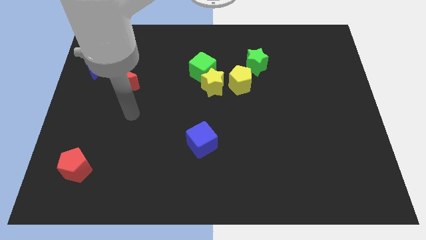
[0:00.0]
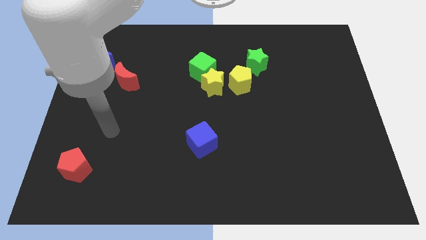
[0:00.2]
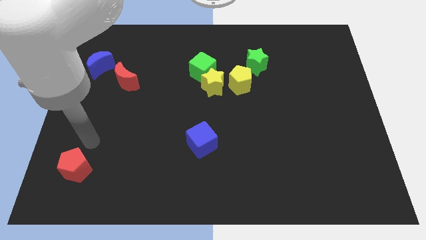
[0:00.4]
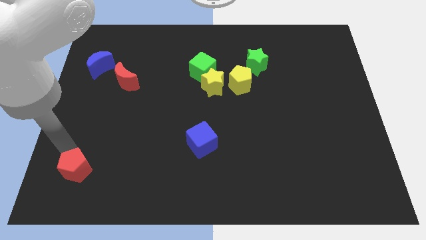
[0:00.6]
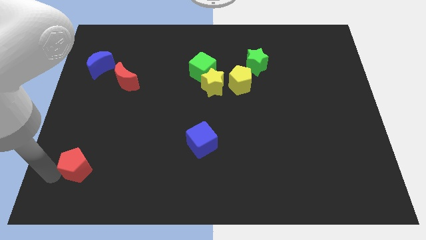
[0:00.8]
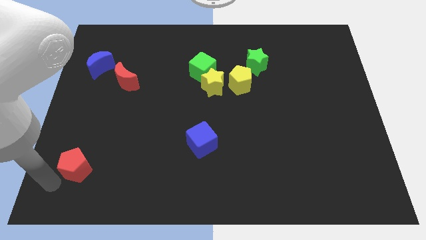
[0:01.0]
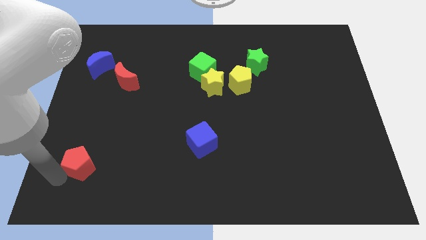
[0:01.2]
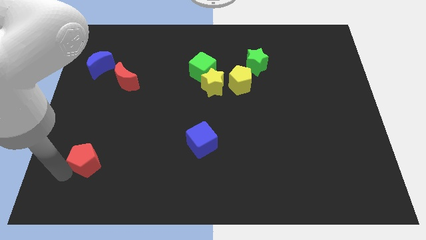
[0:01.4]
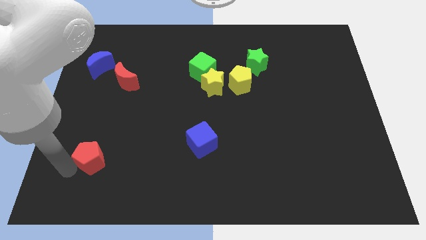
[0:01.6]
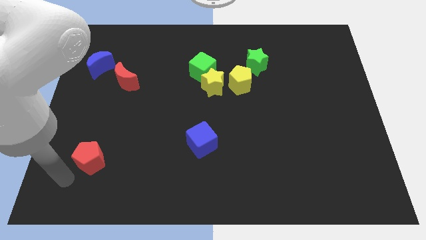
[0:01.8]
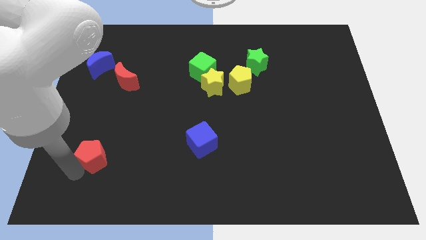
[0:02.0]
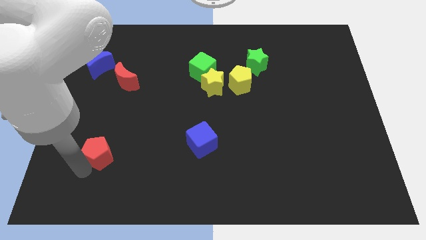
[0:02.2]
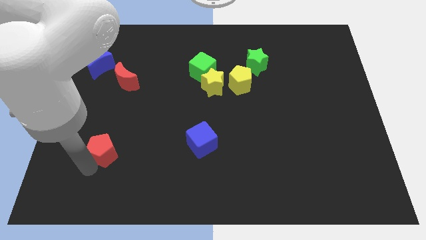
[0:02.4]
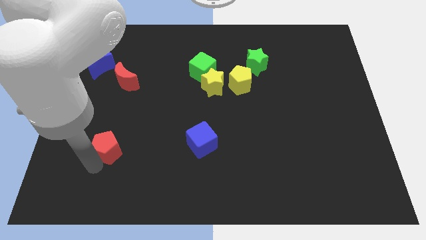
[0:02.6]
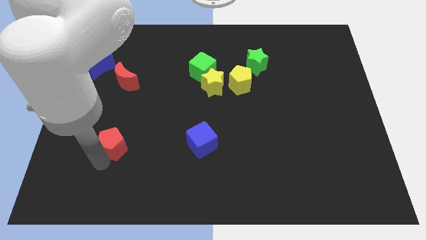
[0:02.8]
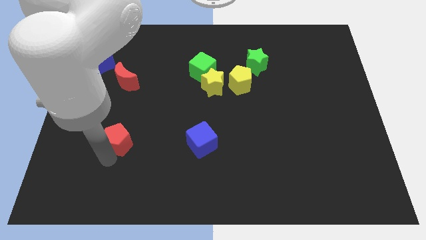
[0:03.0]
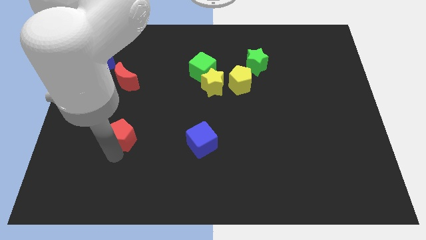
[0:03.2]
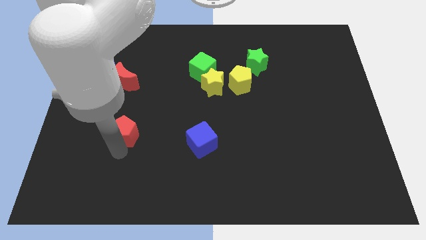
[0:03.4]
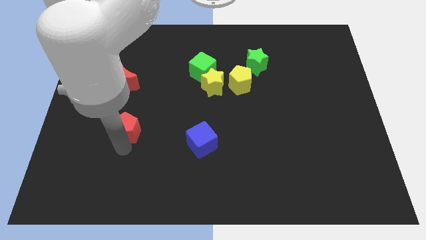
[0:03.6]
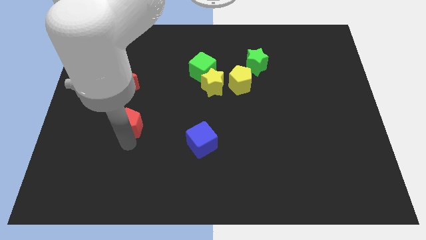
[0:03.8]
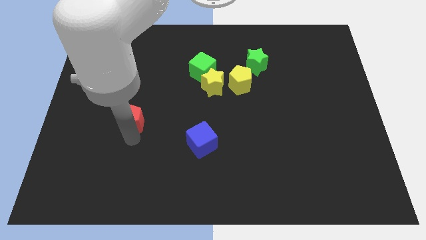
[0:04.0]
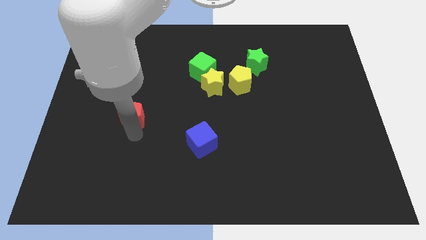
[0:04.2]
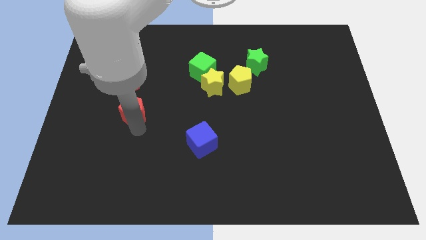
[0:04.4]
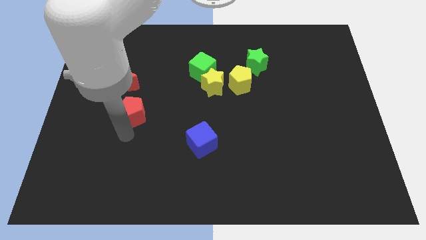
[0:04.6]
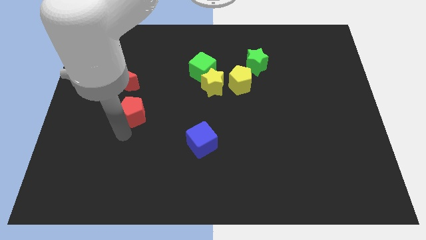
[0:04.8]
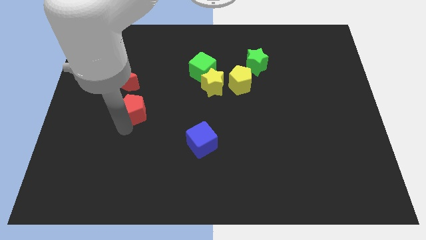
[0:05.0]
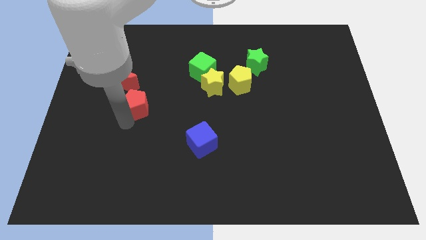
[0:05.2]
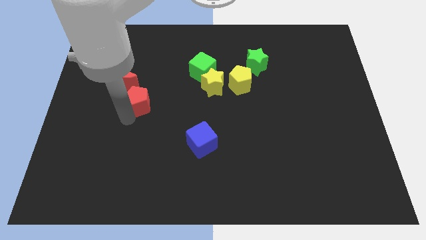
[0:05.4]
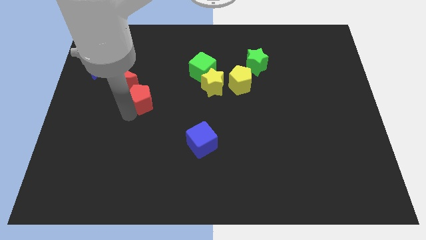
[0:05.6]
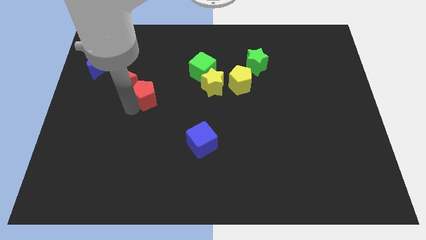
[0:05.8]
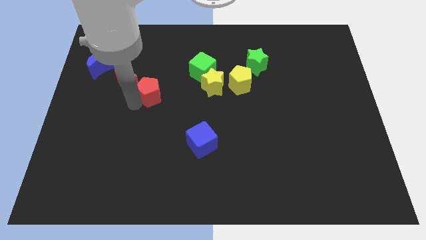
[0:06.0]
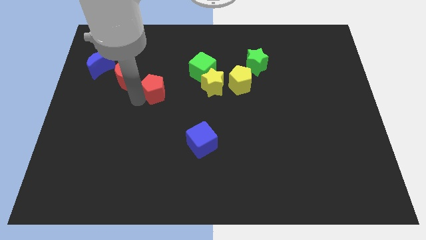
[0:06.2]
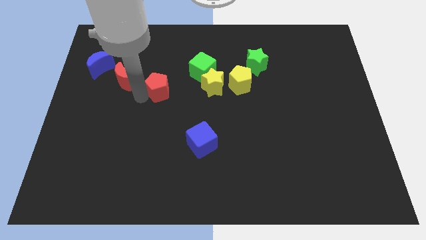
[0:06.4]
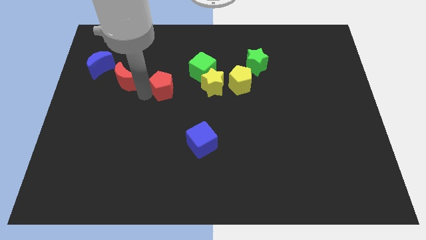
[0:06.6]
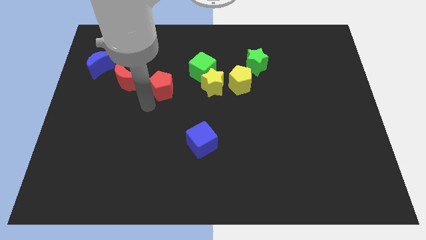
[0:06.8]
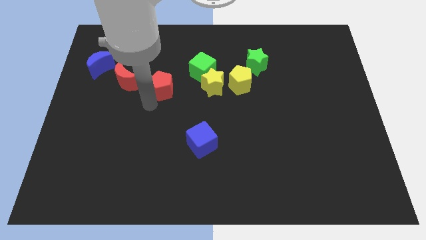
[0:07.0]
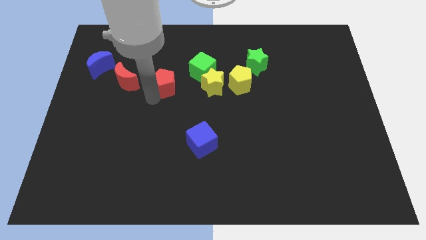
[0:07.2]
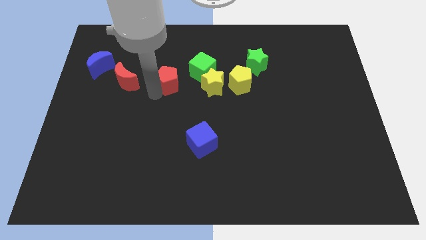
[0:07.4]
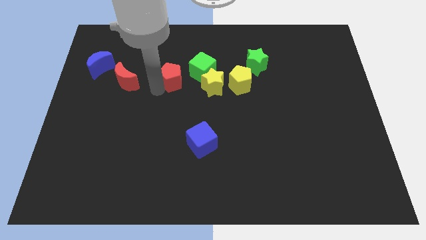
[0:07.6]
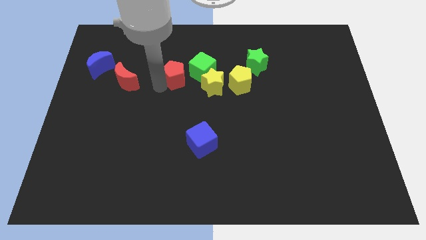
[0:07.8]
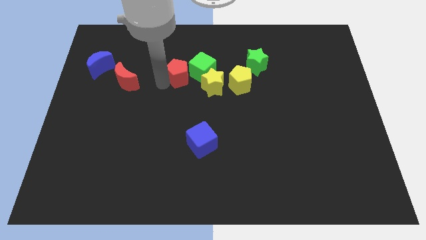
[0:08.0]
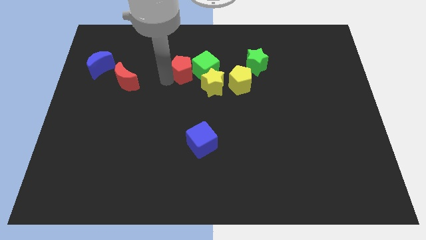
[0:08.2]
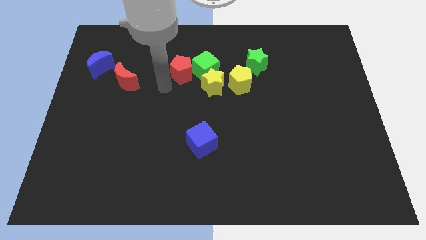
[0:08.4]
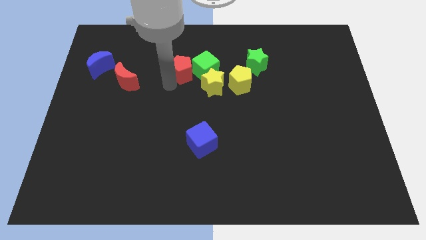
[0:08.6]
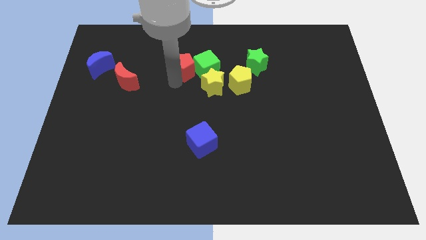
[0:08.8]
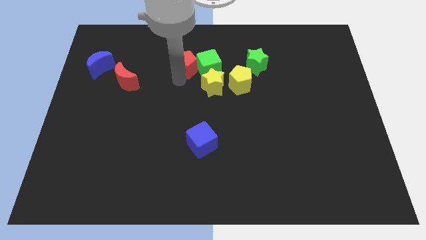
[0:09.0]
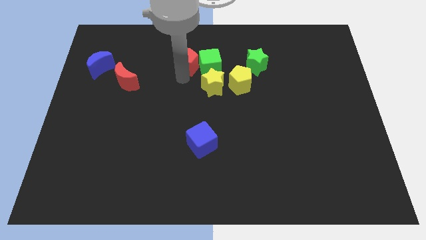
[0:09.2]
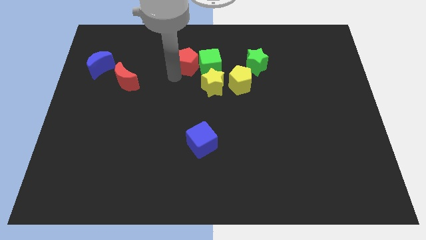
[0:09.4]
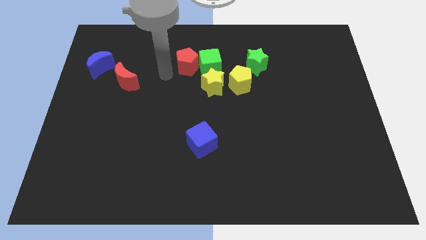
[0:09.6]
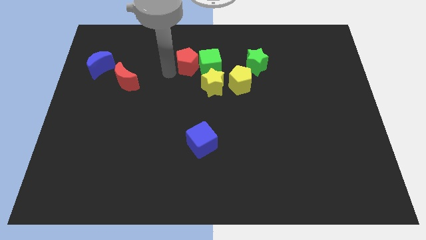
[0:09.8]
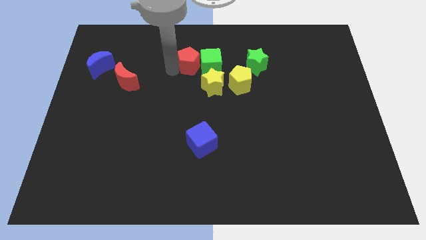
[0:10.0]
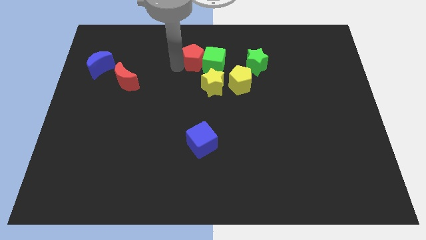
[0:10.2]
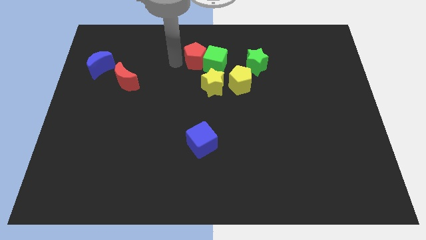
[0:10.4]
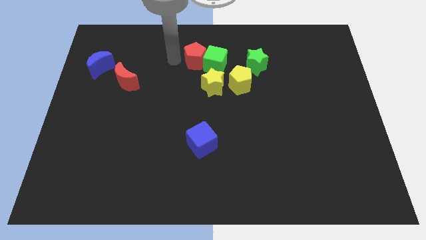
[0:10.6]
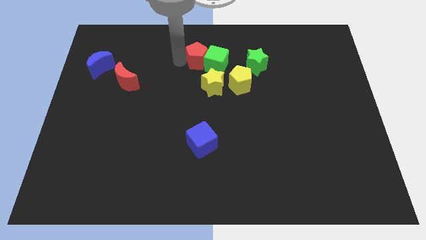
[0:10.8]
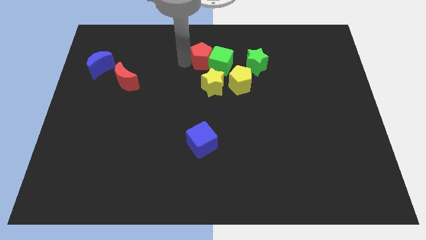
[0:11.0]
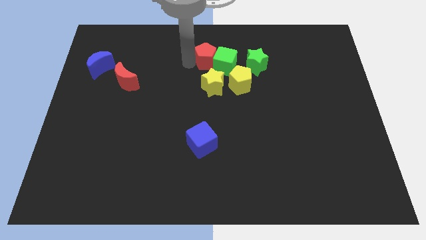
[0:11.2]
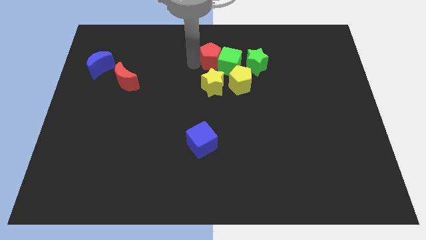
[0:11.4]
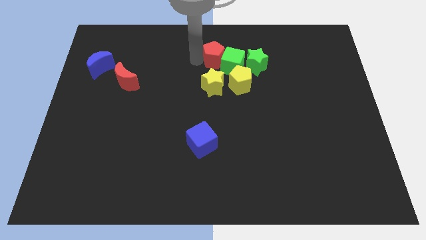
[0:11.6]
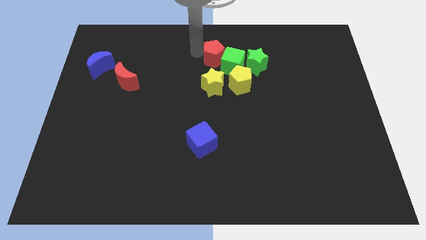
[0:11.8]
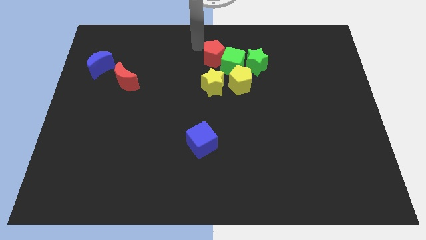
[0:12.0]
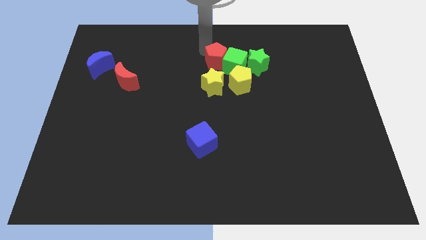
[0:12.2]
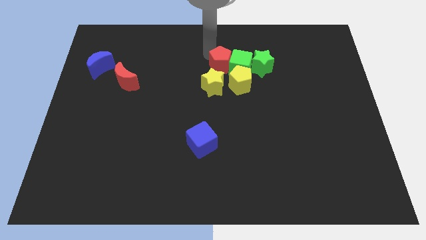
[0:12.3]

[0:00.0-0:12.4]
put the red pentagon diagonally up and to the right of the yellow star
